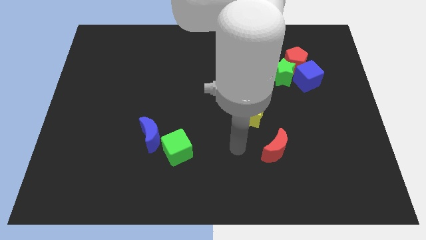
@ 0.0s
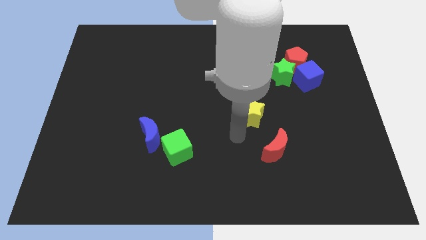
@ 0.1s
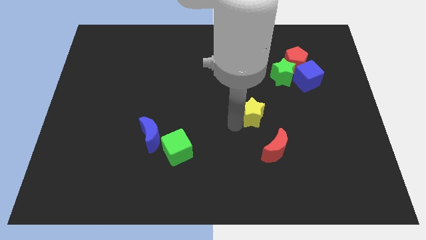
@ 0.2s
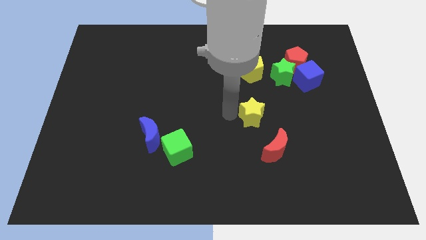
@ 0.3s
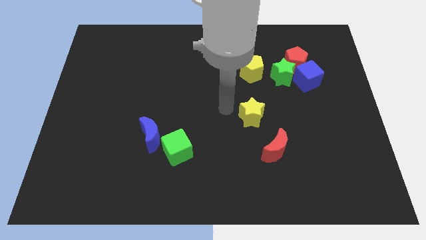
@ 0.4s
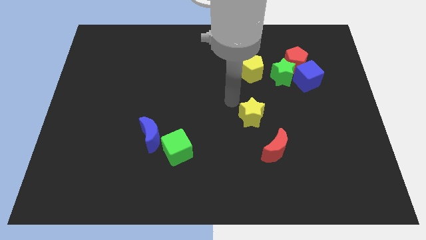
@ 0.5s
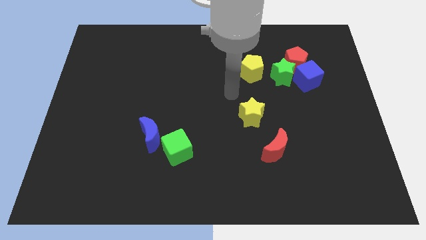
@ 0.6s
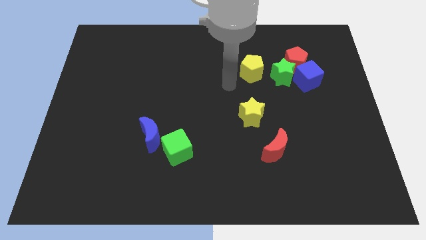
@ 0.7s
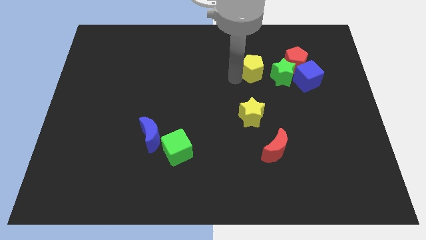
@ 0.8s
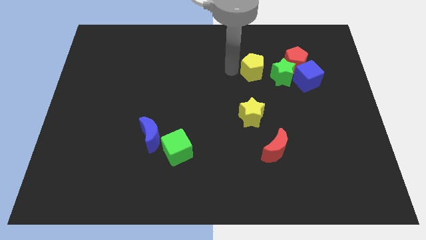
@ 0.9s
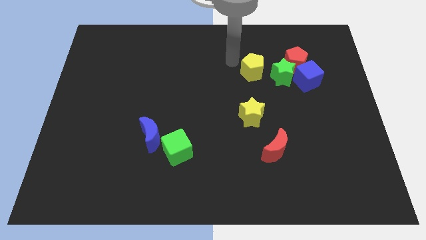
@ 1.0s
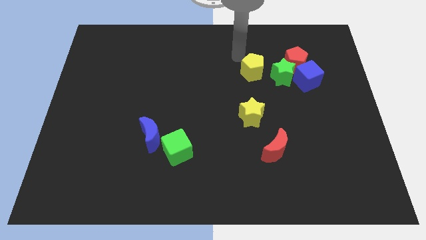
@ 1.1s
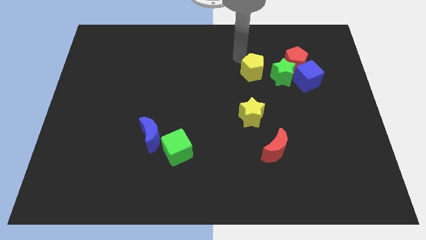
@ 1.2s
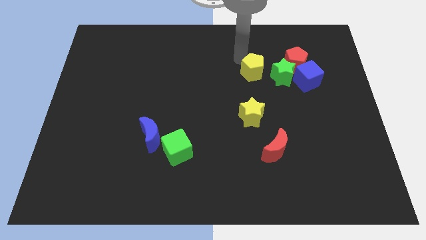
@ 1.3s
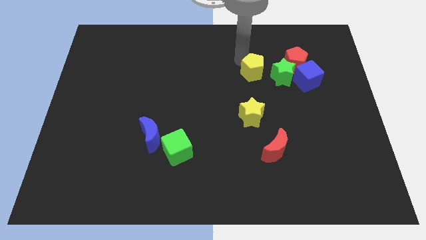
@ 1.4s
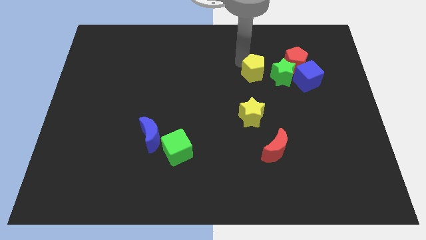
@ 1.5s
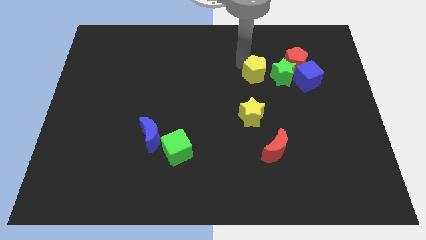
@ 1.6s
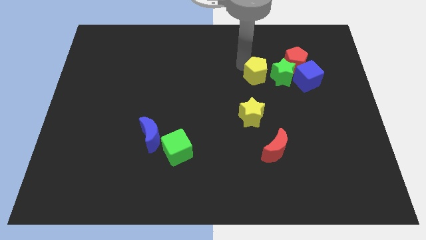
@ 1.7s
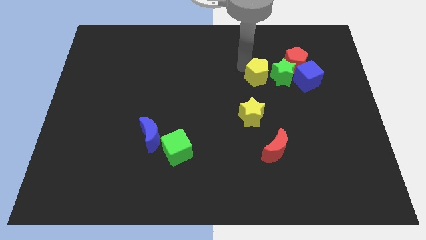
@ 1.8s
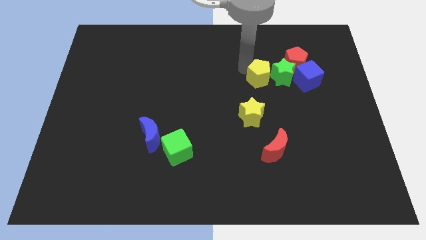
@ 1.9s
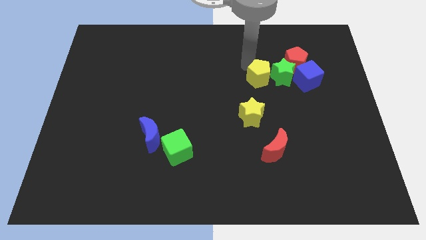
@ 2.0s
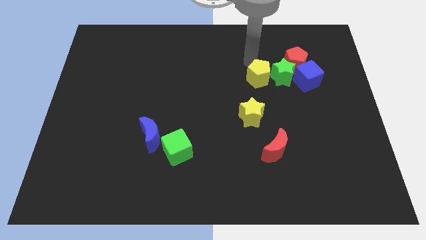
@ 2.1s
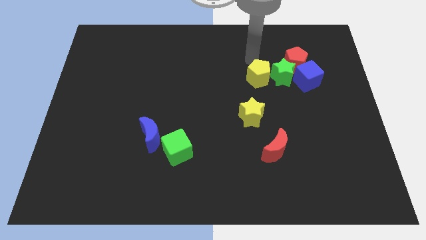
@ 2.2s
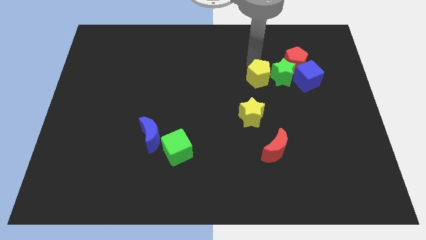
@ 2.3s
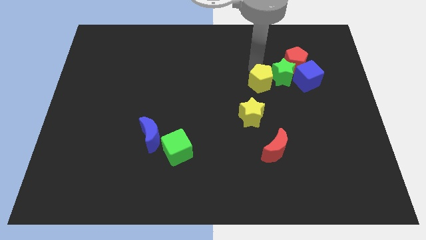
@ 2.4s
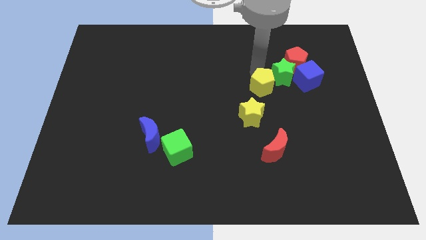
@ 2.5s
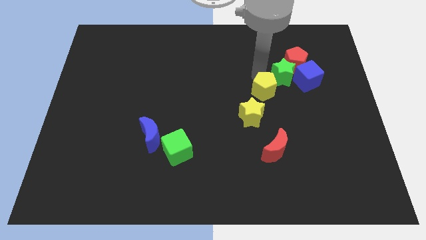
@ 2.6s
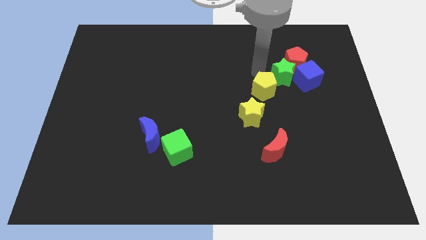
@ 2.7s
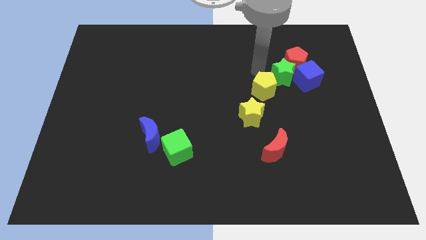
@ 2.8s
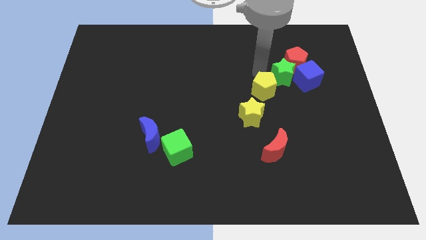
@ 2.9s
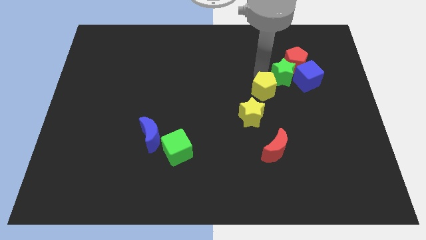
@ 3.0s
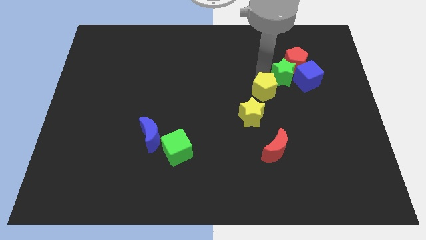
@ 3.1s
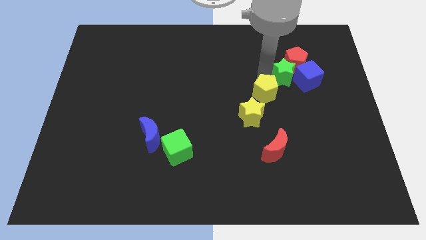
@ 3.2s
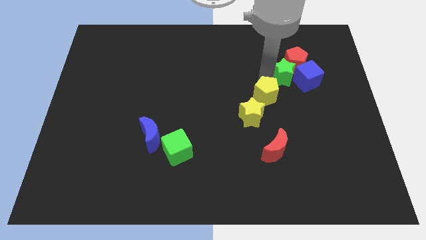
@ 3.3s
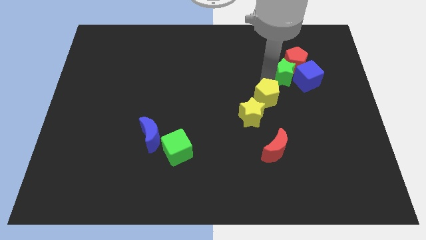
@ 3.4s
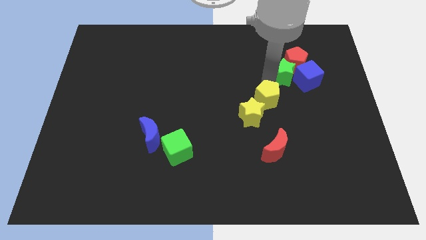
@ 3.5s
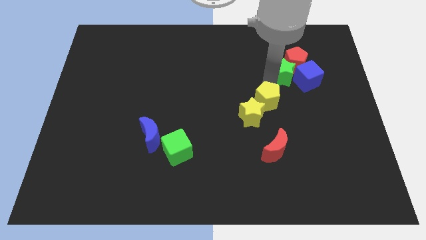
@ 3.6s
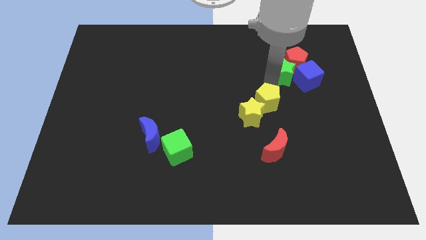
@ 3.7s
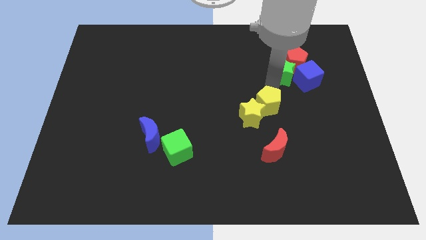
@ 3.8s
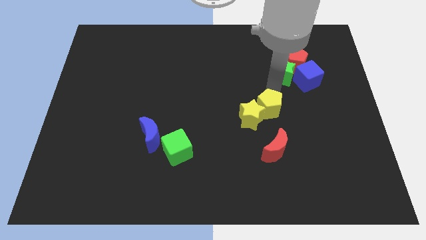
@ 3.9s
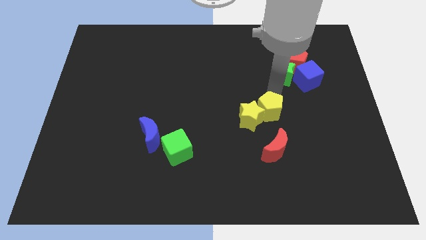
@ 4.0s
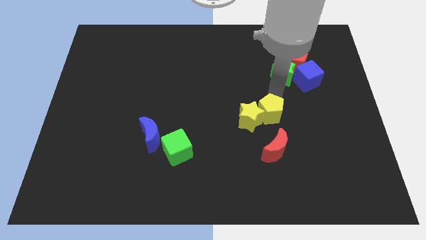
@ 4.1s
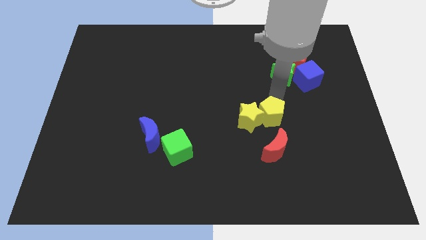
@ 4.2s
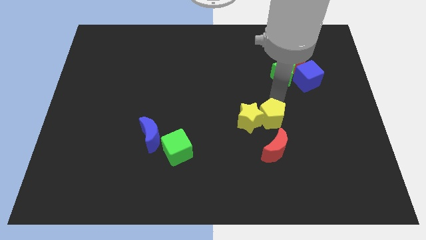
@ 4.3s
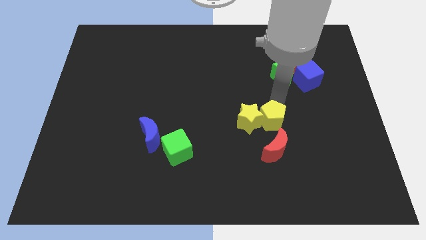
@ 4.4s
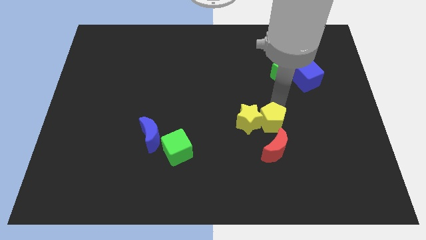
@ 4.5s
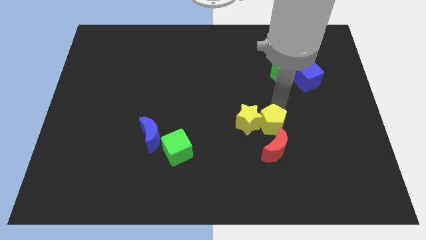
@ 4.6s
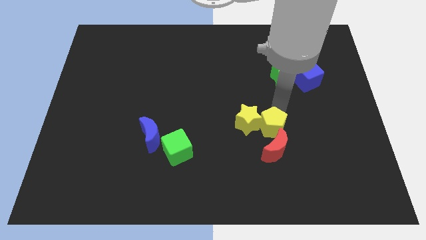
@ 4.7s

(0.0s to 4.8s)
put the yellow pentagon next to the red moon

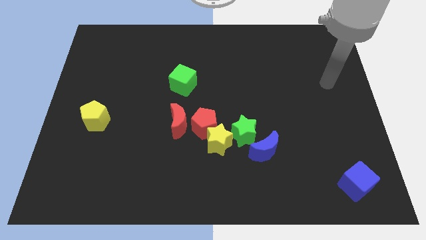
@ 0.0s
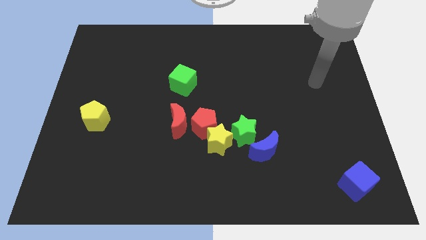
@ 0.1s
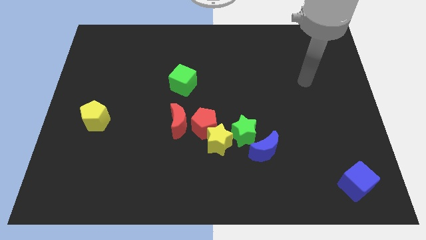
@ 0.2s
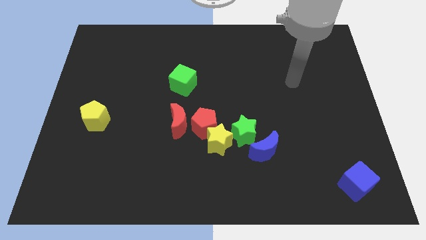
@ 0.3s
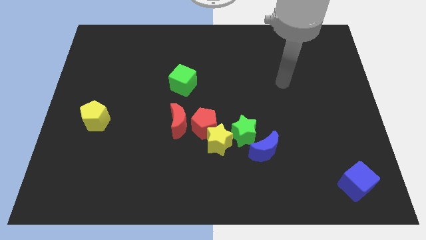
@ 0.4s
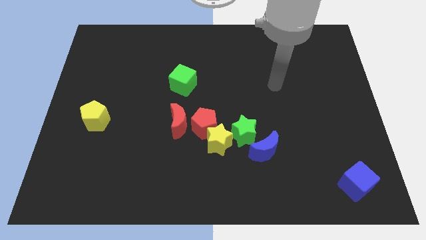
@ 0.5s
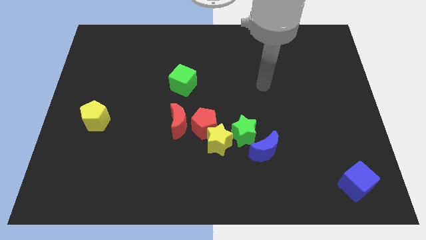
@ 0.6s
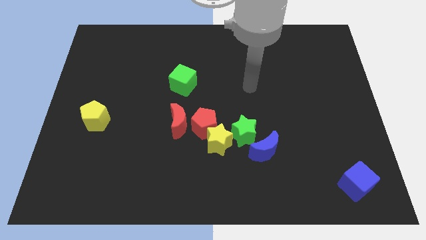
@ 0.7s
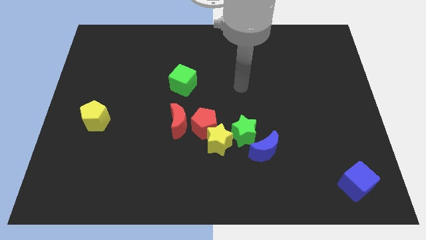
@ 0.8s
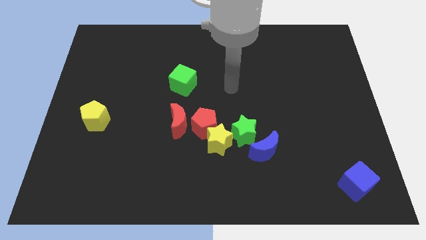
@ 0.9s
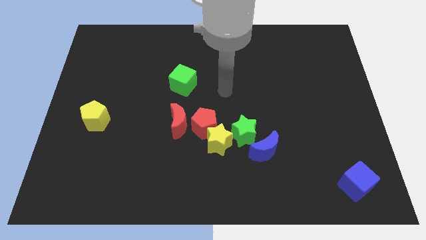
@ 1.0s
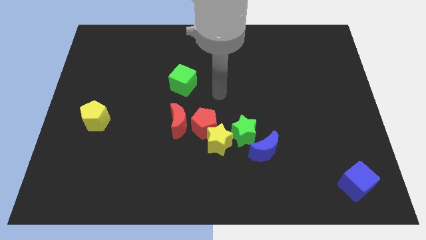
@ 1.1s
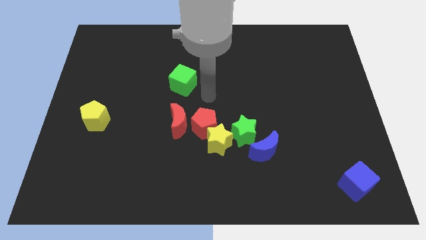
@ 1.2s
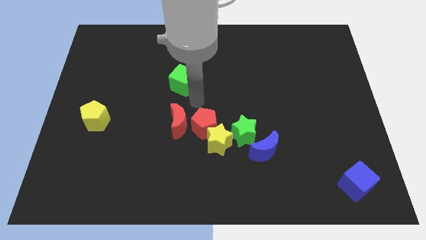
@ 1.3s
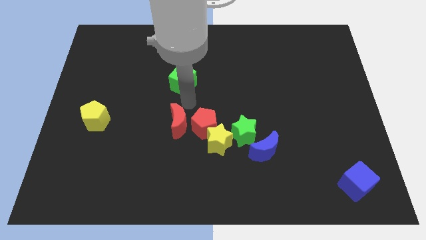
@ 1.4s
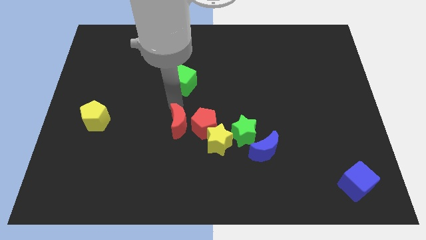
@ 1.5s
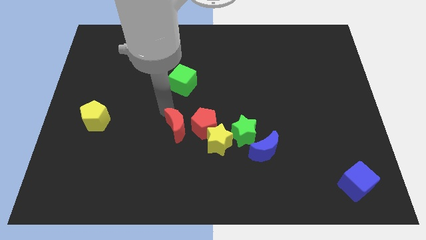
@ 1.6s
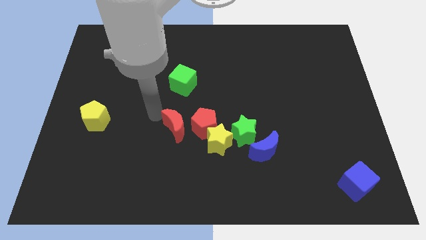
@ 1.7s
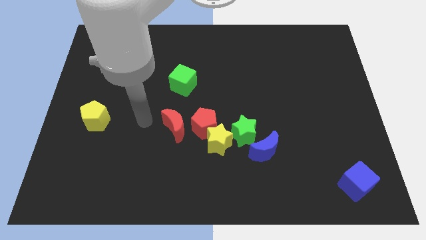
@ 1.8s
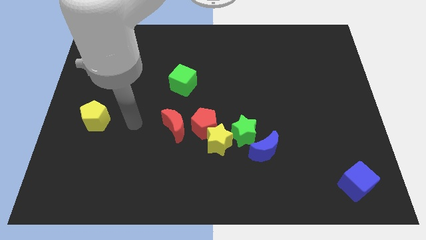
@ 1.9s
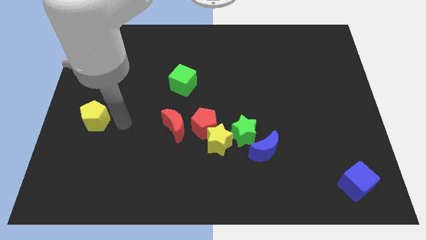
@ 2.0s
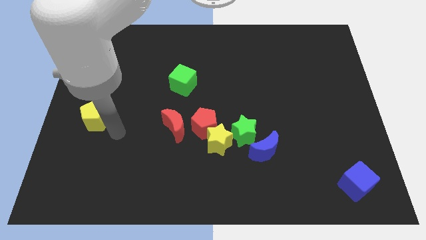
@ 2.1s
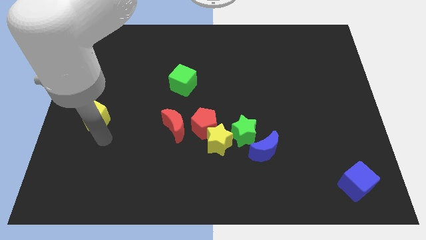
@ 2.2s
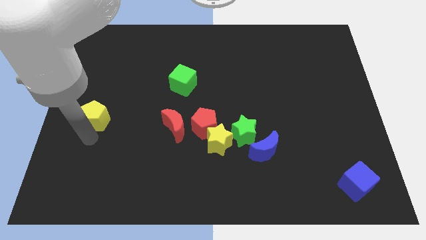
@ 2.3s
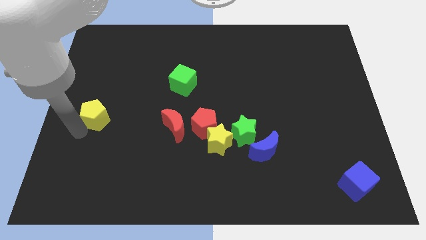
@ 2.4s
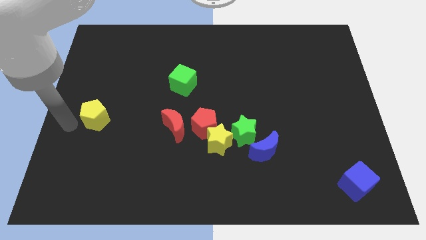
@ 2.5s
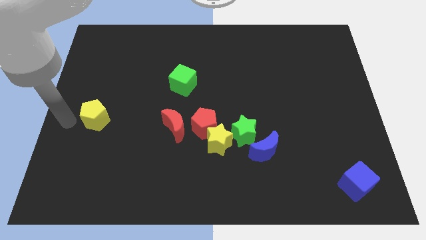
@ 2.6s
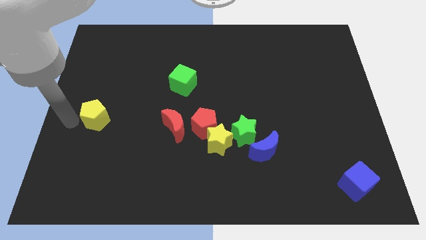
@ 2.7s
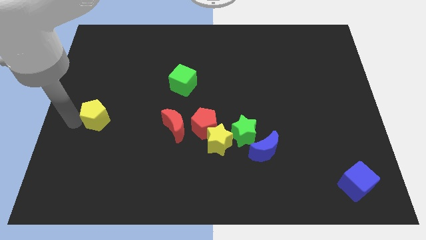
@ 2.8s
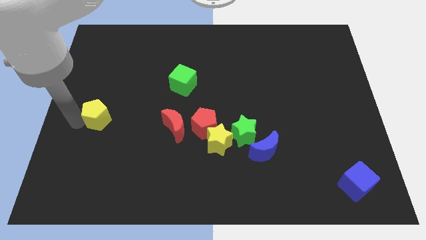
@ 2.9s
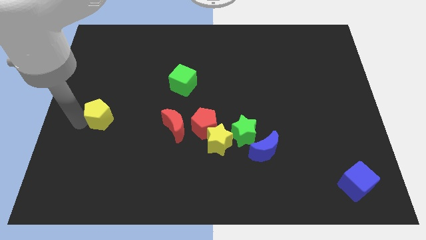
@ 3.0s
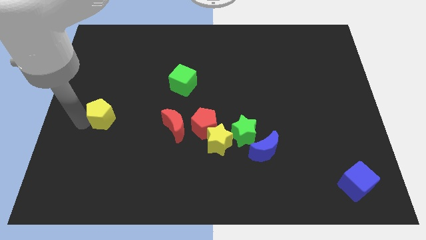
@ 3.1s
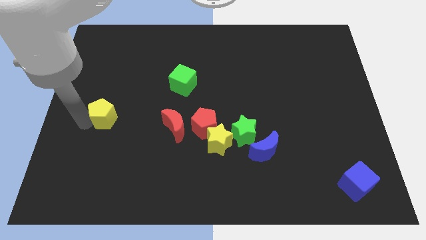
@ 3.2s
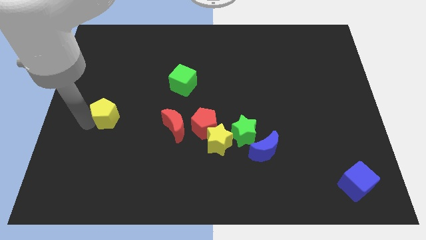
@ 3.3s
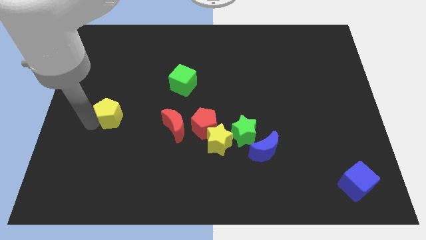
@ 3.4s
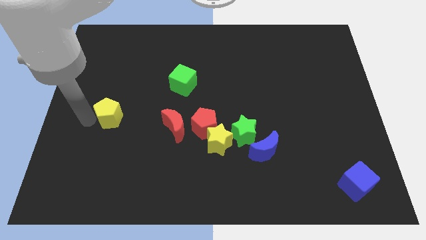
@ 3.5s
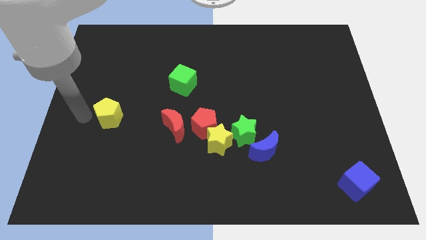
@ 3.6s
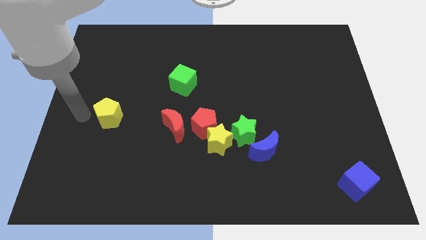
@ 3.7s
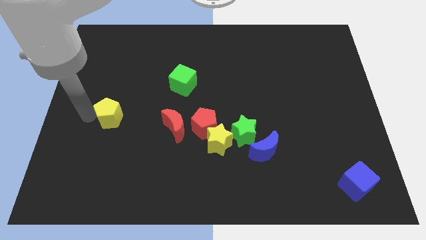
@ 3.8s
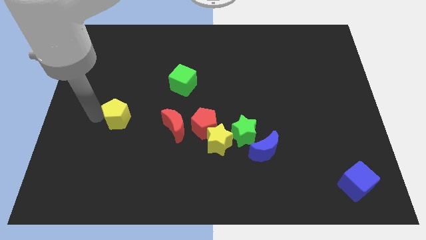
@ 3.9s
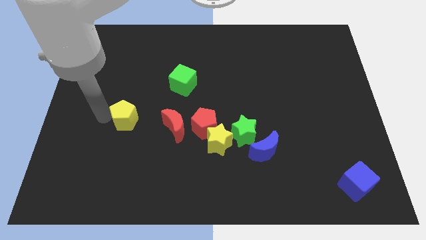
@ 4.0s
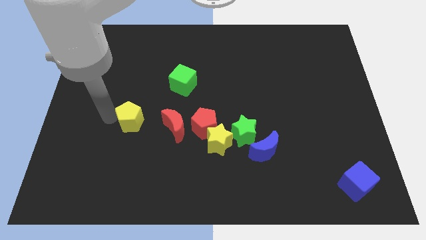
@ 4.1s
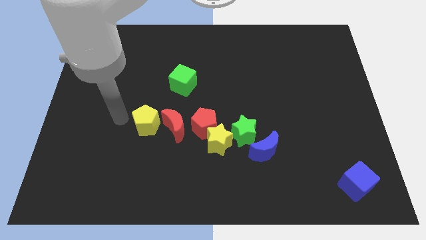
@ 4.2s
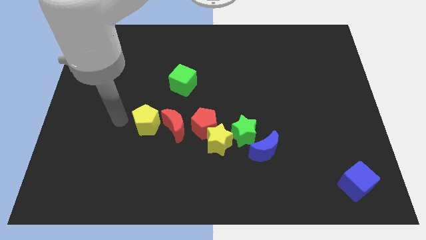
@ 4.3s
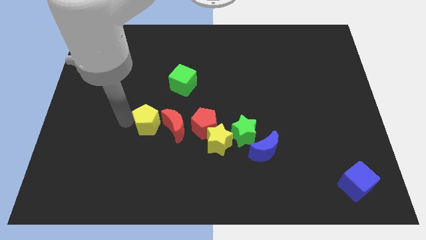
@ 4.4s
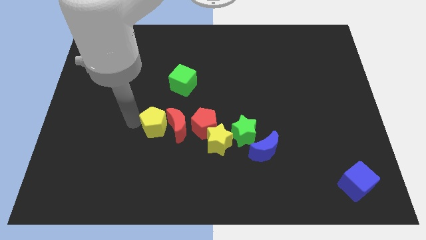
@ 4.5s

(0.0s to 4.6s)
push the yellow pentagon next to the red moon
